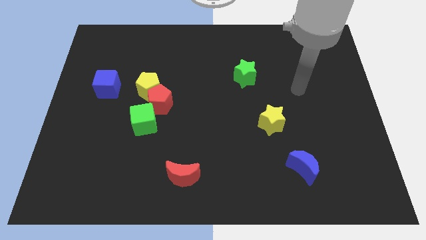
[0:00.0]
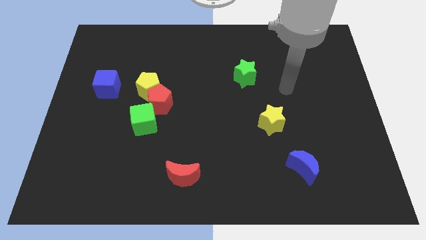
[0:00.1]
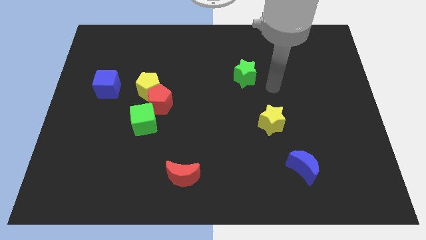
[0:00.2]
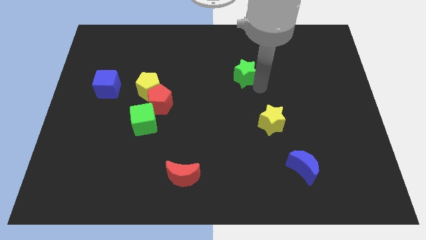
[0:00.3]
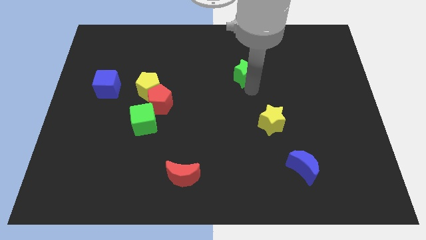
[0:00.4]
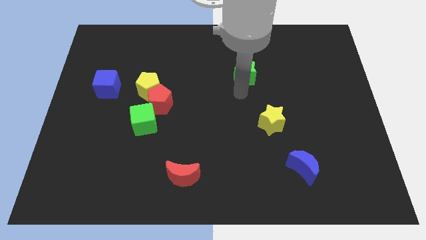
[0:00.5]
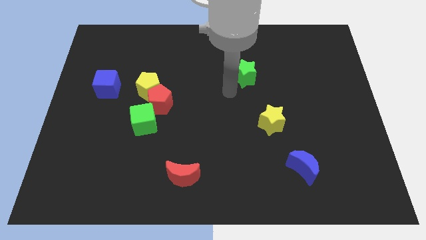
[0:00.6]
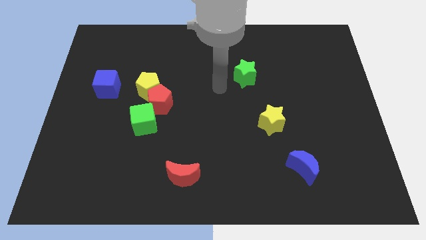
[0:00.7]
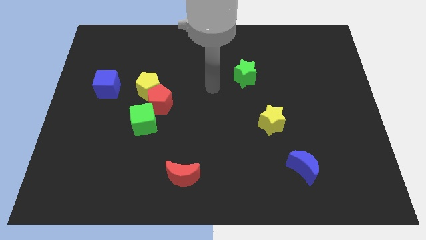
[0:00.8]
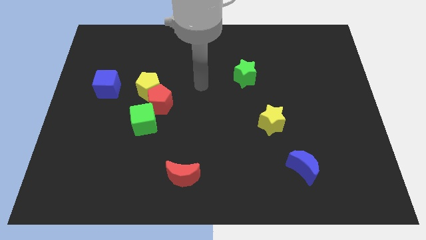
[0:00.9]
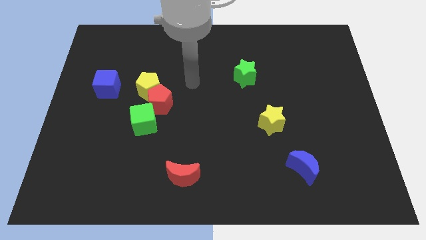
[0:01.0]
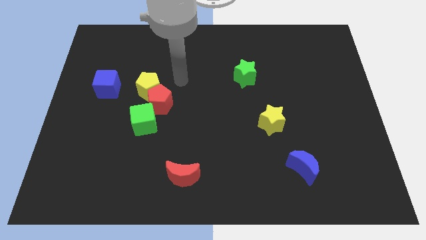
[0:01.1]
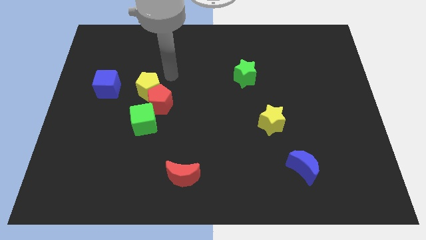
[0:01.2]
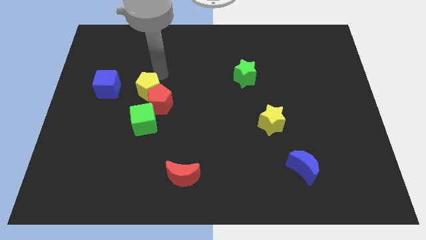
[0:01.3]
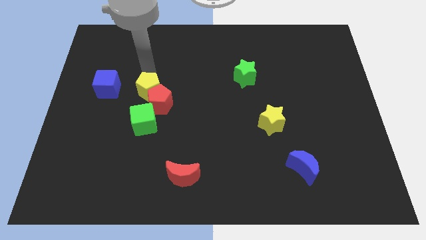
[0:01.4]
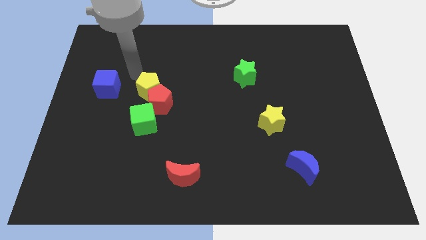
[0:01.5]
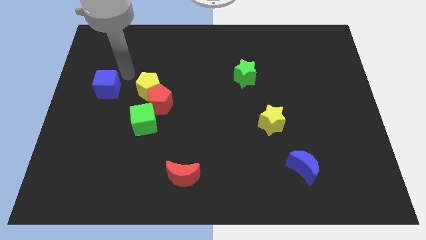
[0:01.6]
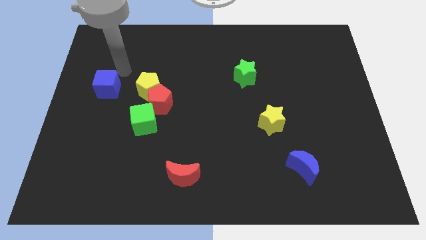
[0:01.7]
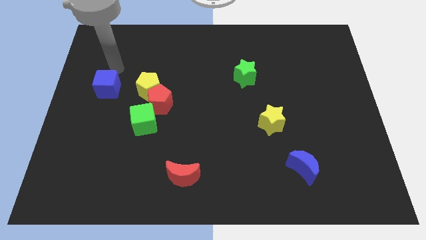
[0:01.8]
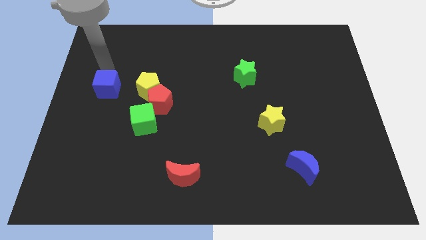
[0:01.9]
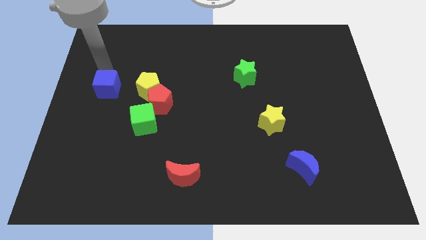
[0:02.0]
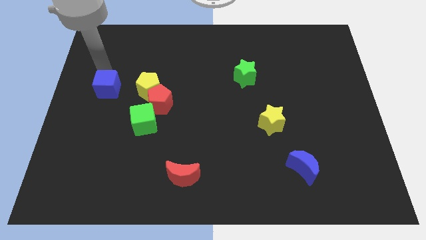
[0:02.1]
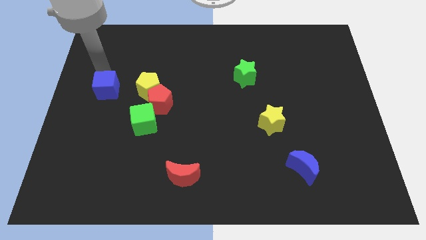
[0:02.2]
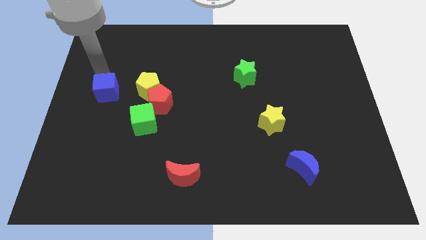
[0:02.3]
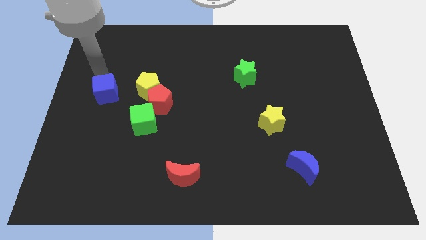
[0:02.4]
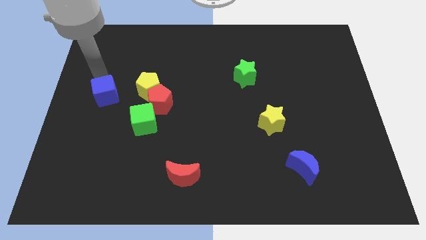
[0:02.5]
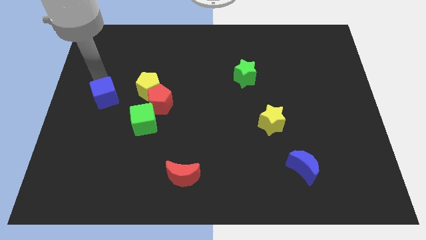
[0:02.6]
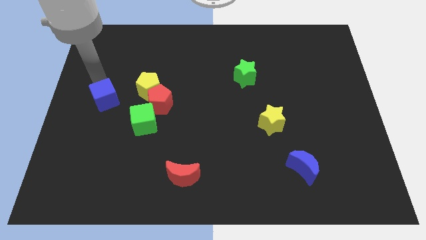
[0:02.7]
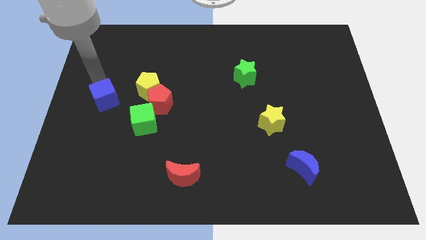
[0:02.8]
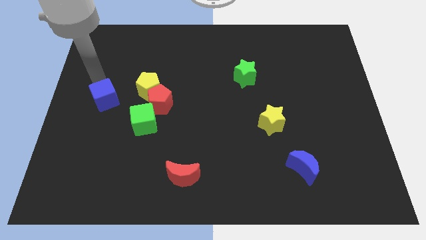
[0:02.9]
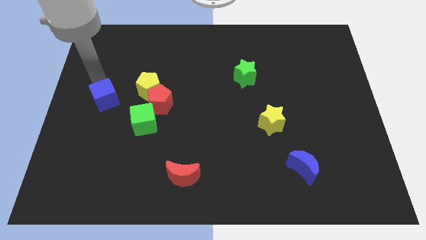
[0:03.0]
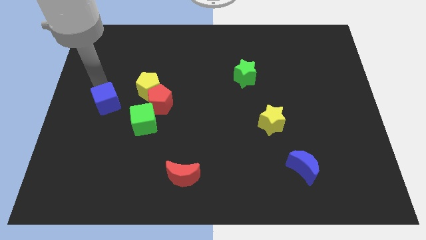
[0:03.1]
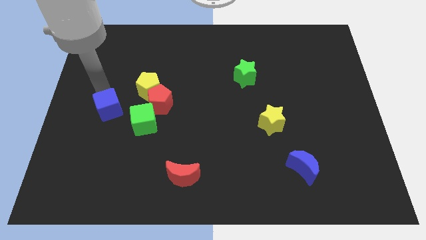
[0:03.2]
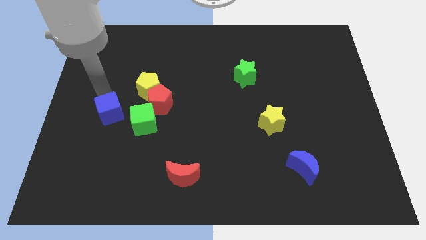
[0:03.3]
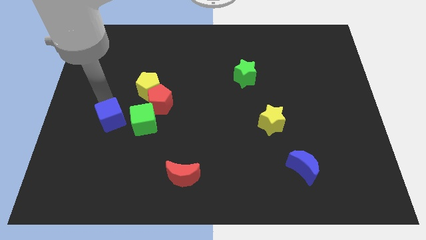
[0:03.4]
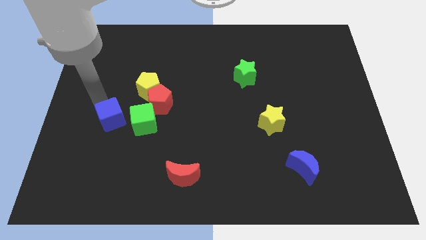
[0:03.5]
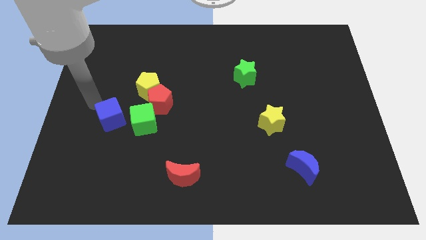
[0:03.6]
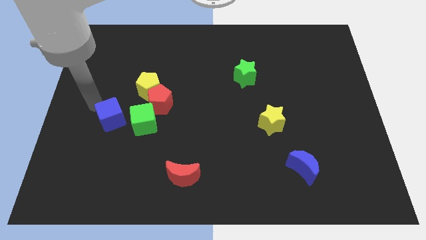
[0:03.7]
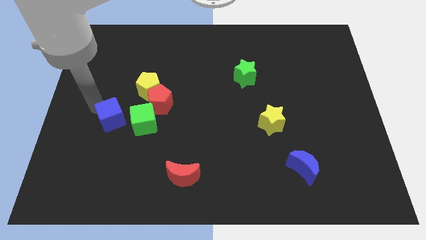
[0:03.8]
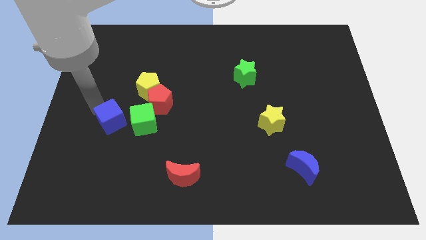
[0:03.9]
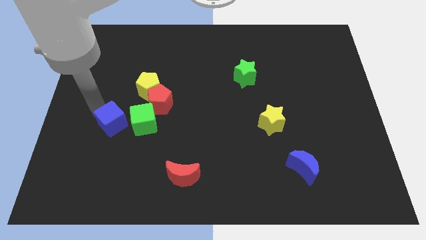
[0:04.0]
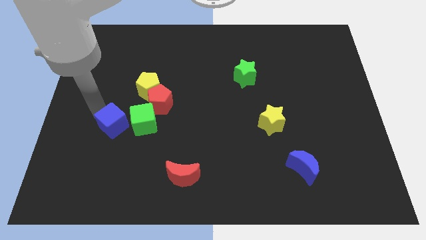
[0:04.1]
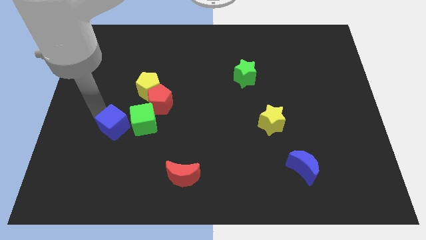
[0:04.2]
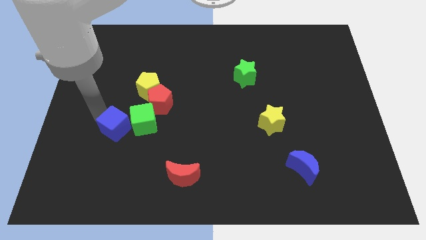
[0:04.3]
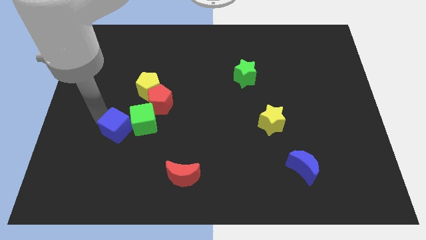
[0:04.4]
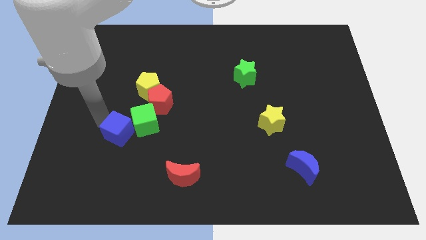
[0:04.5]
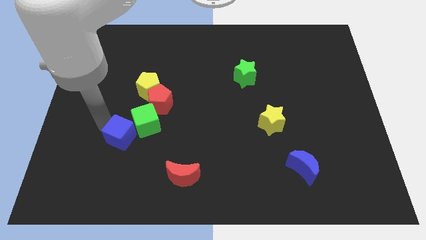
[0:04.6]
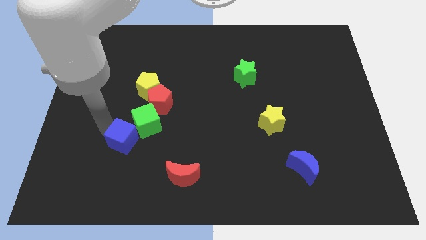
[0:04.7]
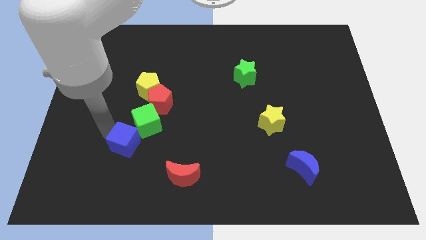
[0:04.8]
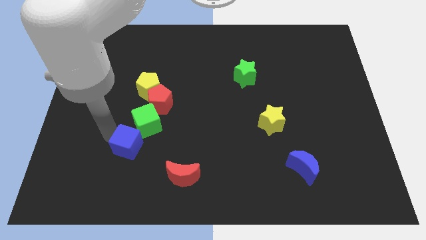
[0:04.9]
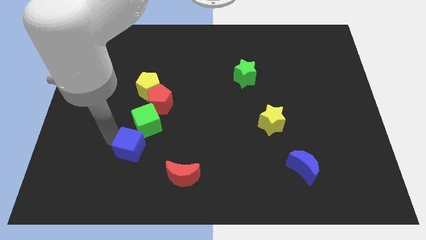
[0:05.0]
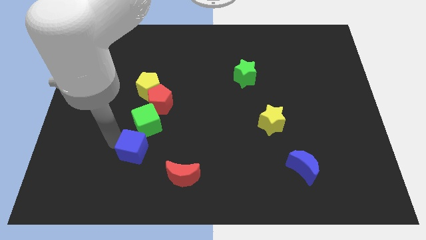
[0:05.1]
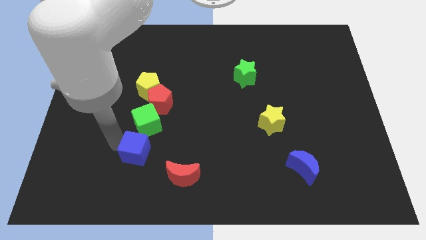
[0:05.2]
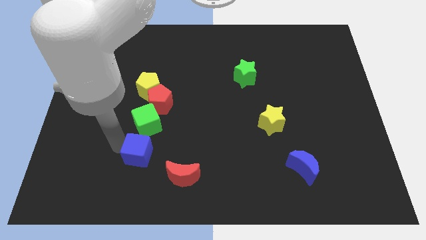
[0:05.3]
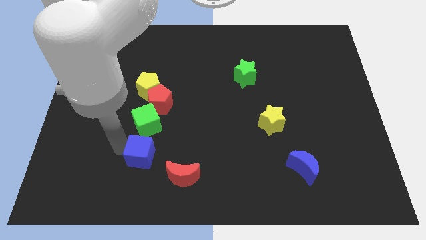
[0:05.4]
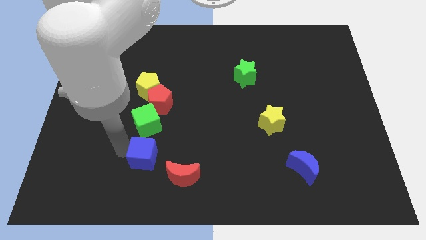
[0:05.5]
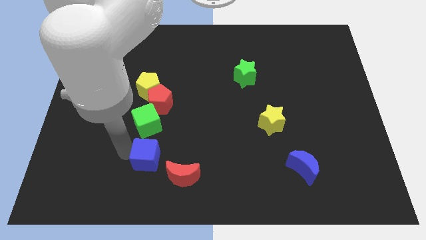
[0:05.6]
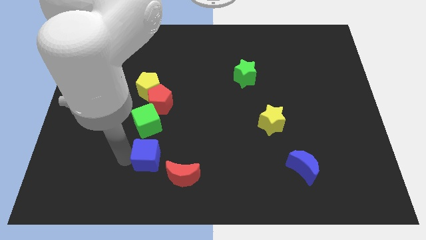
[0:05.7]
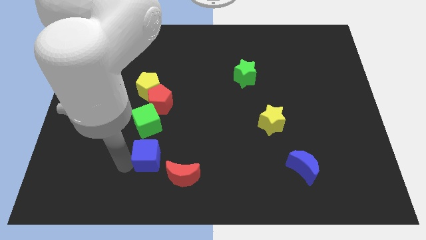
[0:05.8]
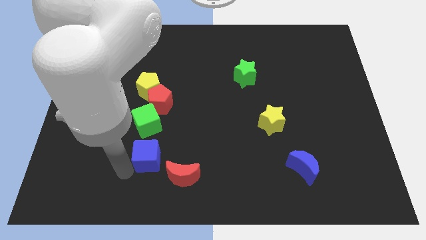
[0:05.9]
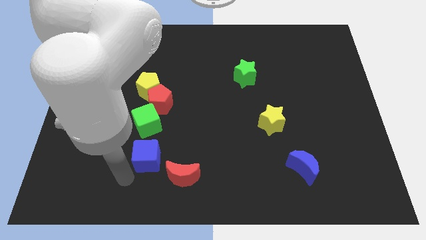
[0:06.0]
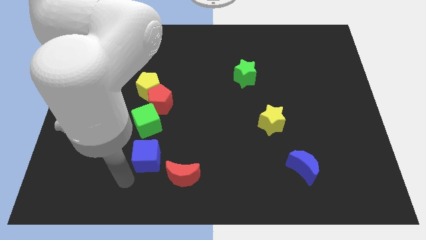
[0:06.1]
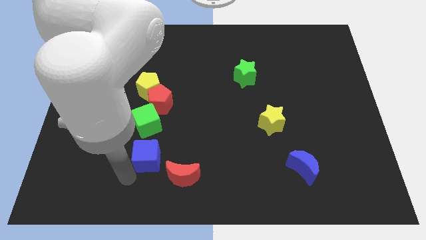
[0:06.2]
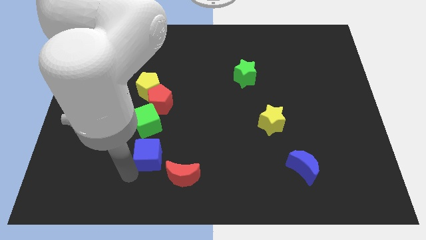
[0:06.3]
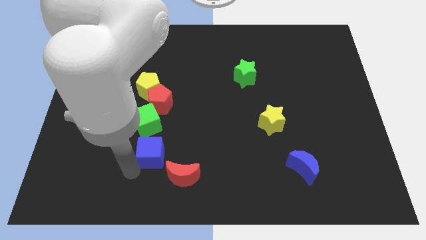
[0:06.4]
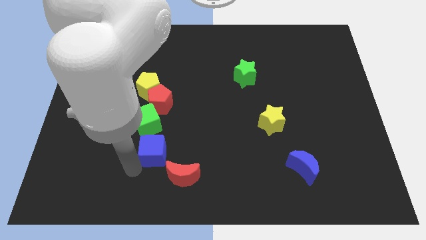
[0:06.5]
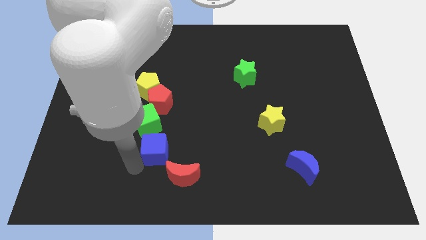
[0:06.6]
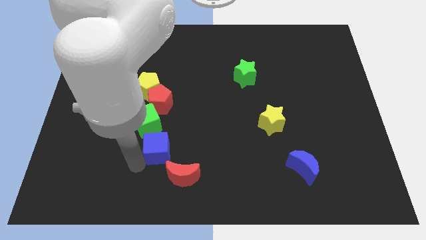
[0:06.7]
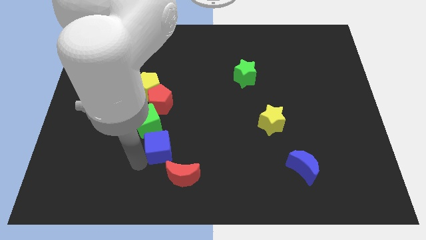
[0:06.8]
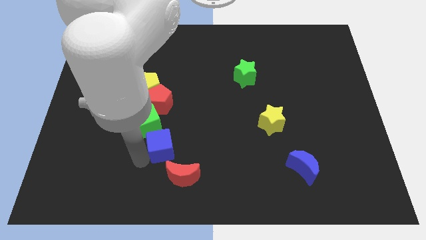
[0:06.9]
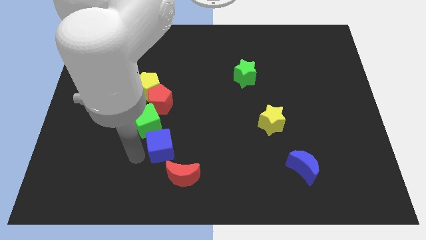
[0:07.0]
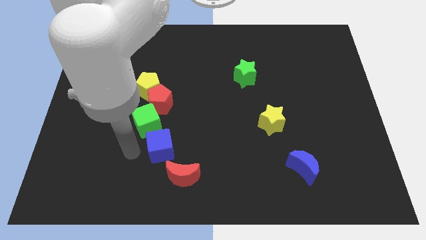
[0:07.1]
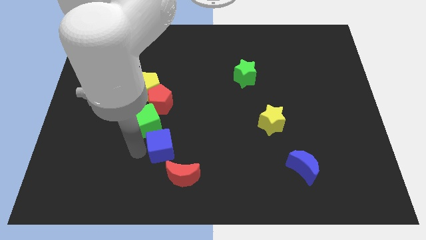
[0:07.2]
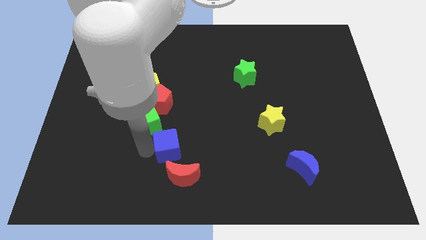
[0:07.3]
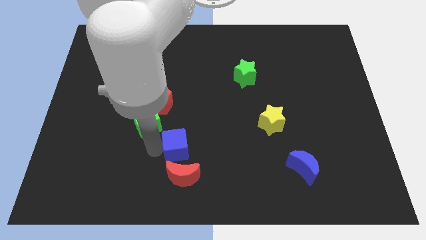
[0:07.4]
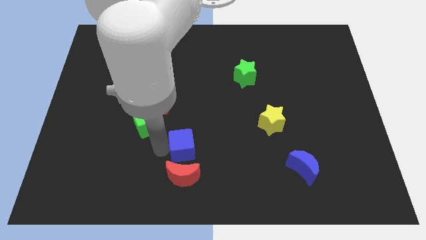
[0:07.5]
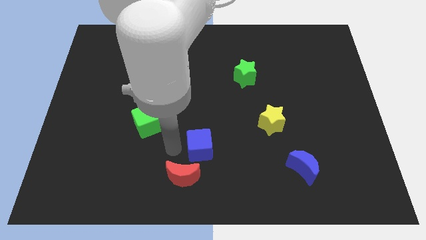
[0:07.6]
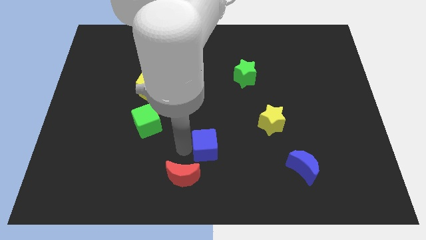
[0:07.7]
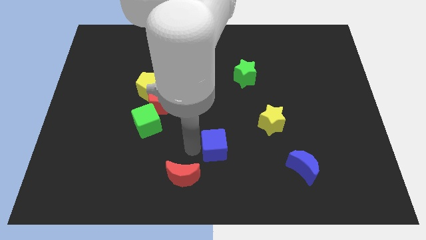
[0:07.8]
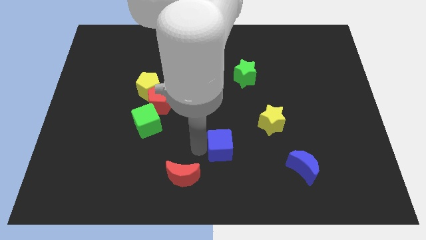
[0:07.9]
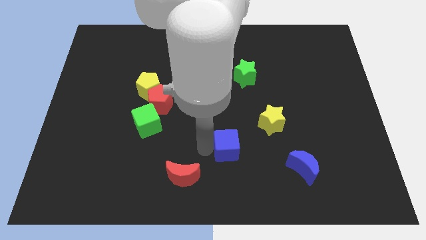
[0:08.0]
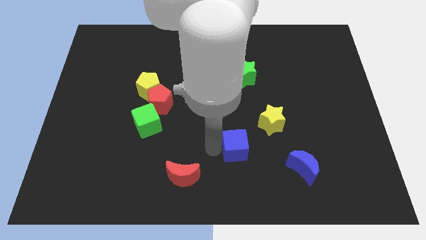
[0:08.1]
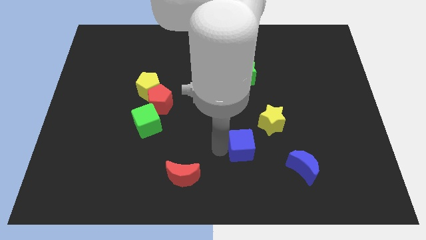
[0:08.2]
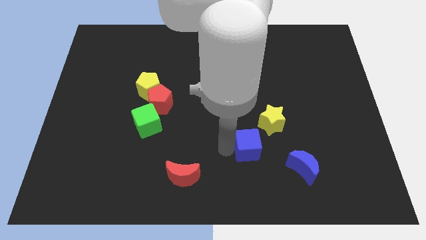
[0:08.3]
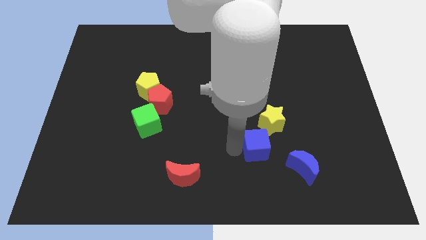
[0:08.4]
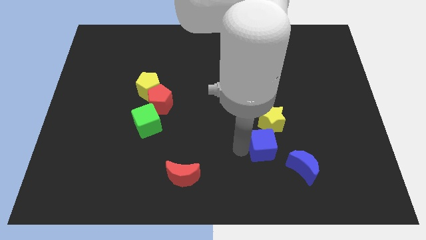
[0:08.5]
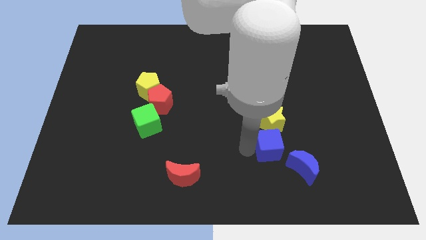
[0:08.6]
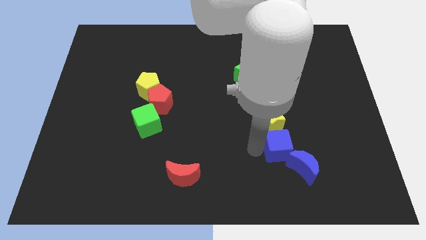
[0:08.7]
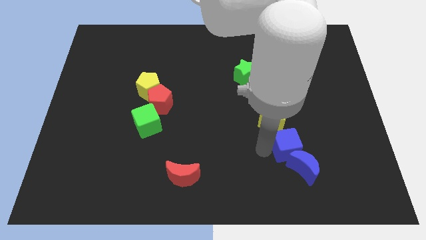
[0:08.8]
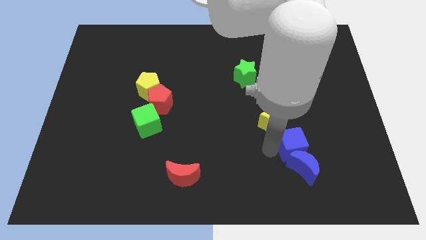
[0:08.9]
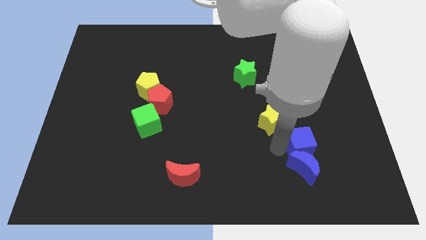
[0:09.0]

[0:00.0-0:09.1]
push the blue cube diagonally up and to the right of the blue moon
